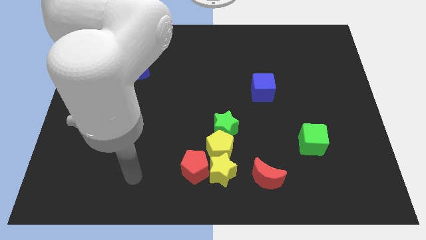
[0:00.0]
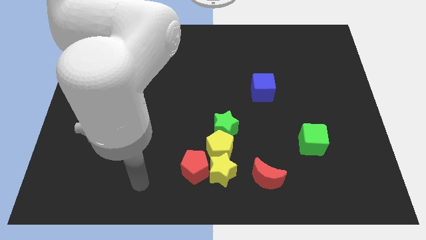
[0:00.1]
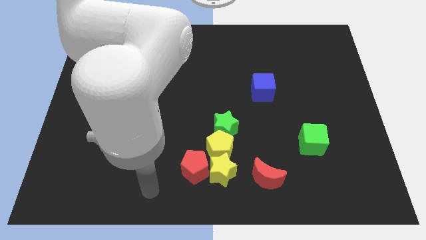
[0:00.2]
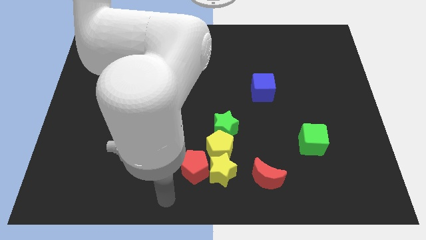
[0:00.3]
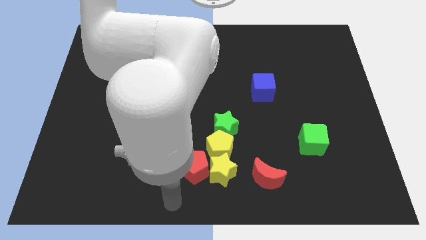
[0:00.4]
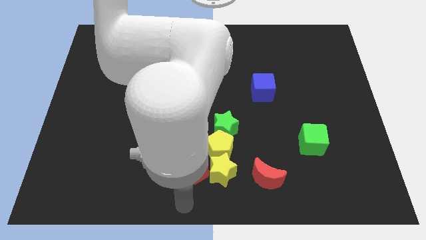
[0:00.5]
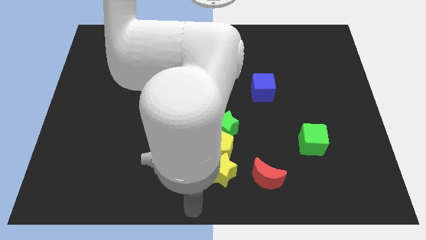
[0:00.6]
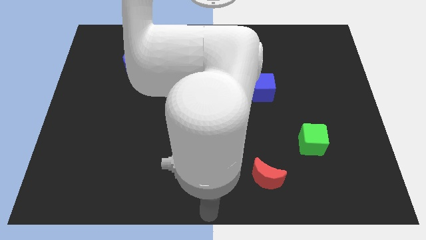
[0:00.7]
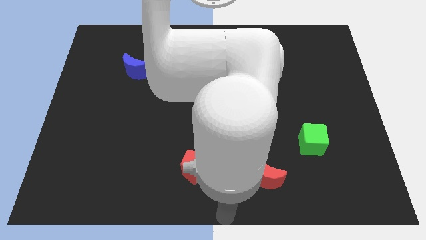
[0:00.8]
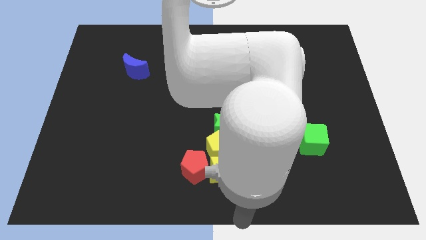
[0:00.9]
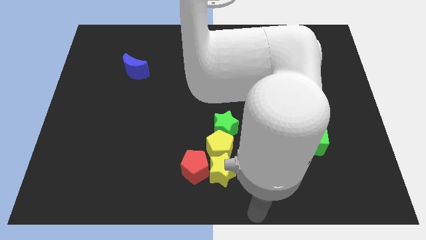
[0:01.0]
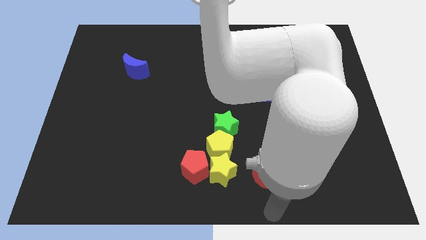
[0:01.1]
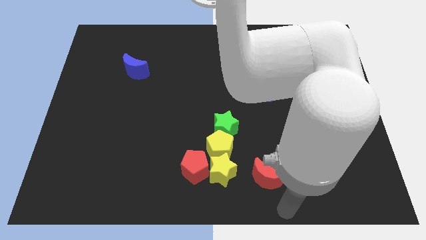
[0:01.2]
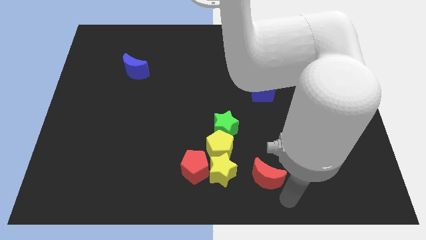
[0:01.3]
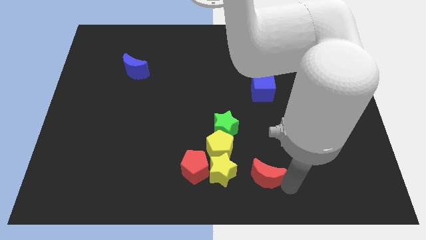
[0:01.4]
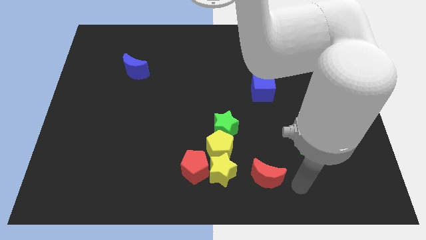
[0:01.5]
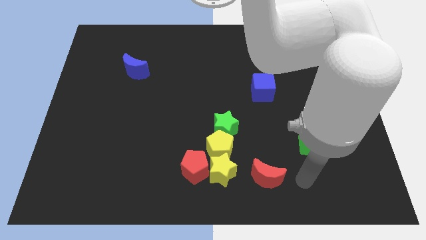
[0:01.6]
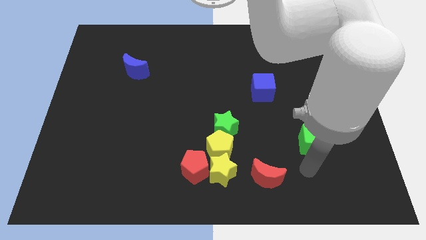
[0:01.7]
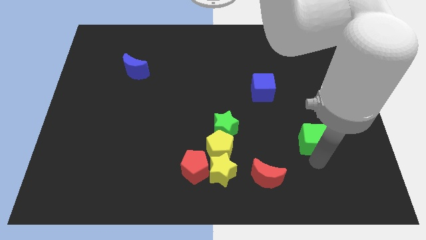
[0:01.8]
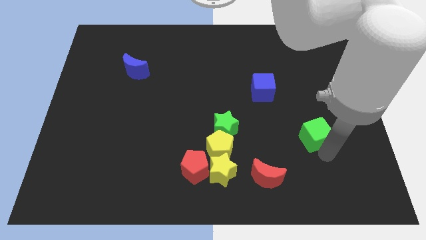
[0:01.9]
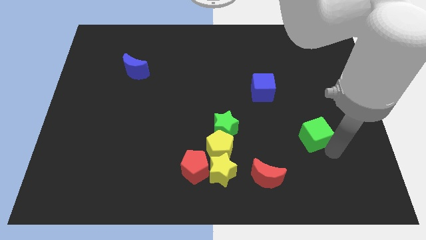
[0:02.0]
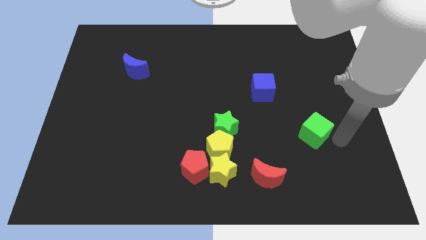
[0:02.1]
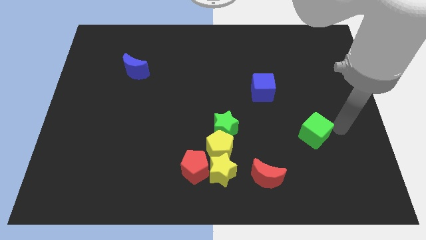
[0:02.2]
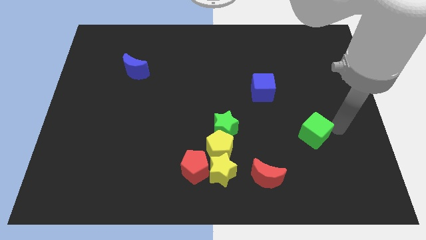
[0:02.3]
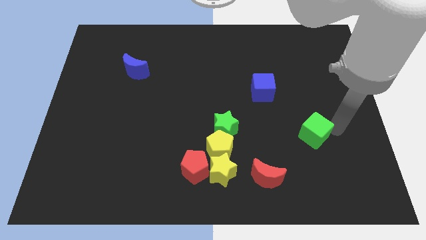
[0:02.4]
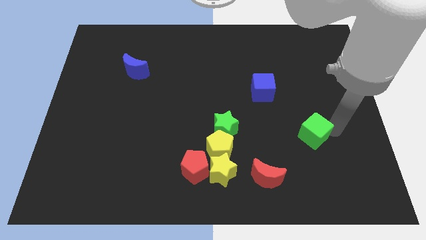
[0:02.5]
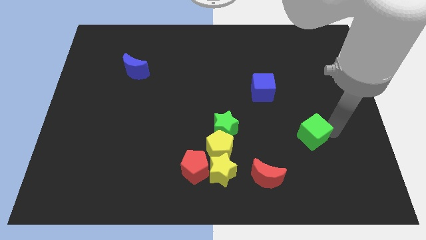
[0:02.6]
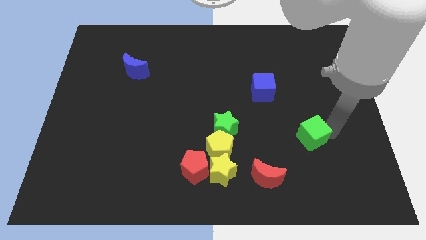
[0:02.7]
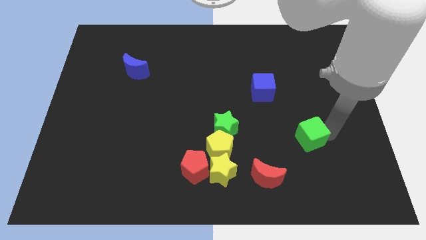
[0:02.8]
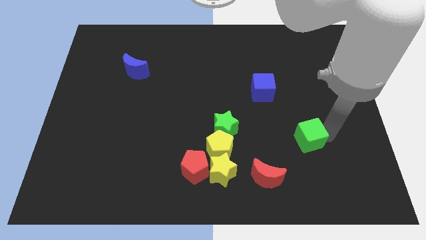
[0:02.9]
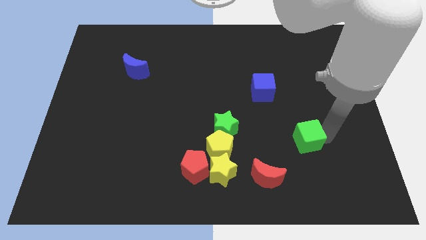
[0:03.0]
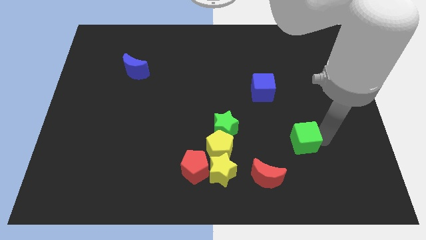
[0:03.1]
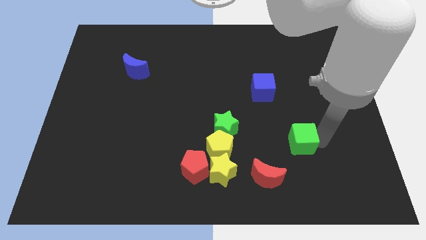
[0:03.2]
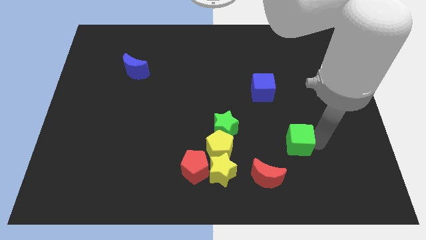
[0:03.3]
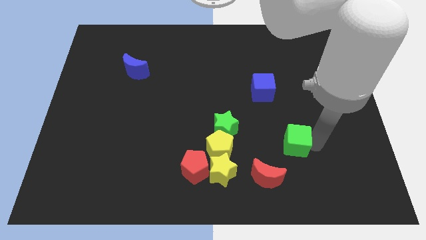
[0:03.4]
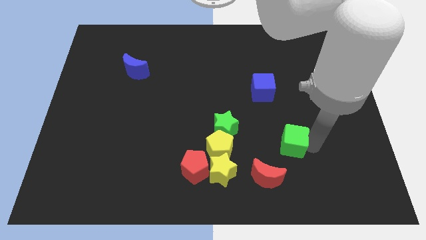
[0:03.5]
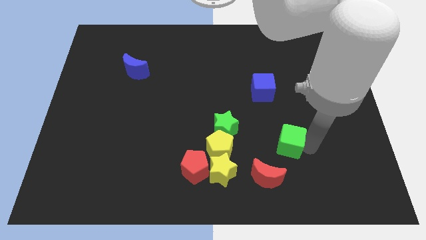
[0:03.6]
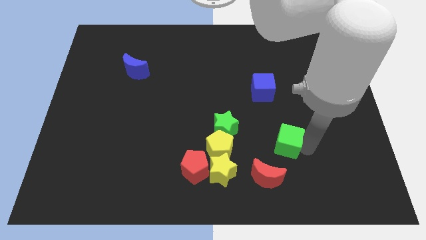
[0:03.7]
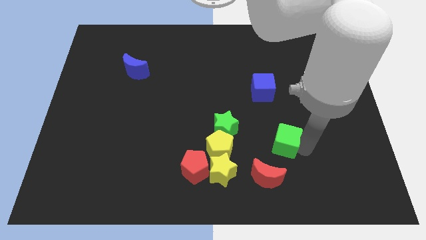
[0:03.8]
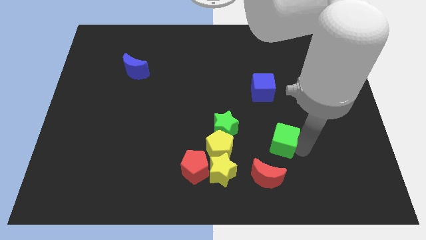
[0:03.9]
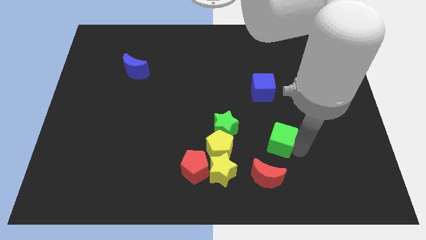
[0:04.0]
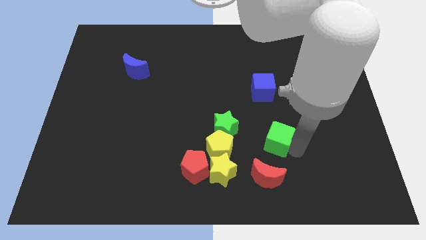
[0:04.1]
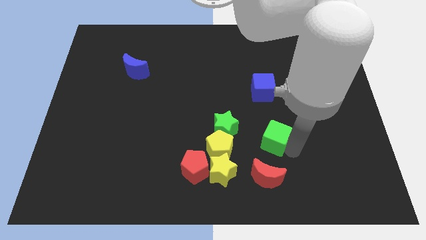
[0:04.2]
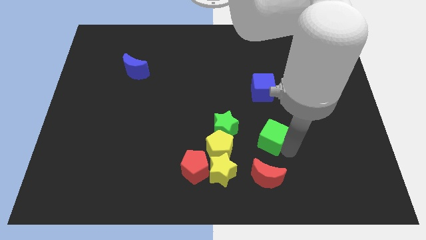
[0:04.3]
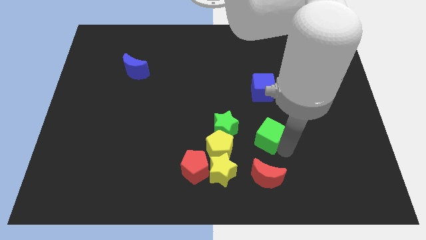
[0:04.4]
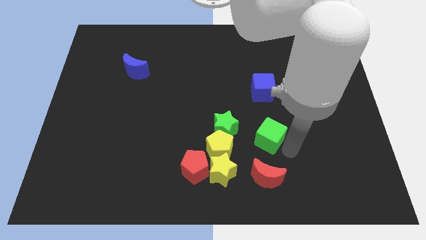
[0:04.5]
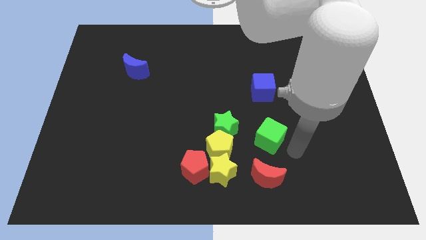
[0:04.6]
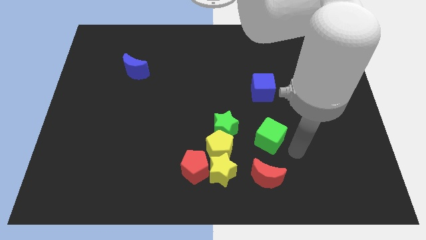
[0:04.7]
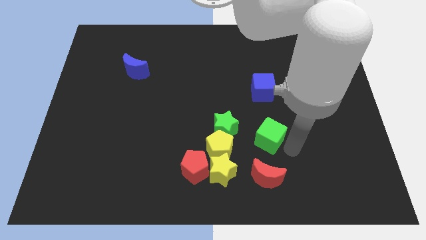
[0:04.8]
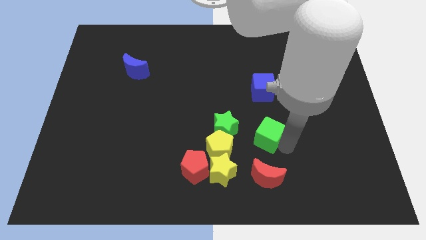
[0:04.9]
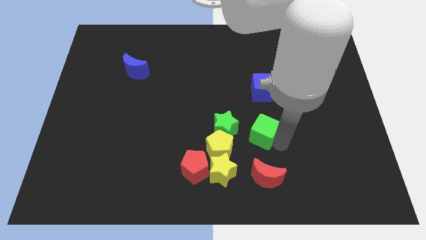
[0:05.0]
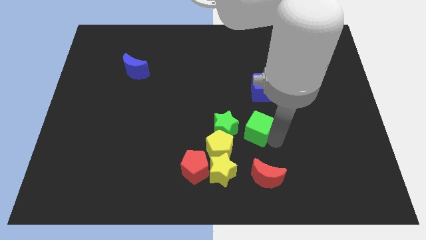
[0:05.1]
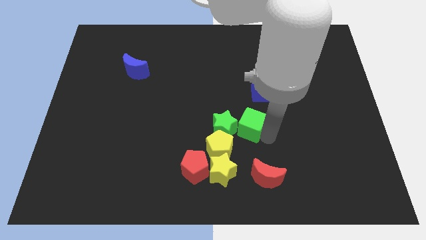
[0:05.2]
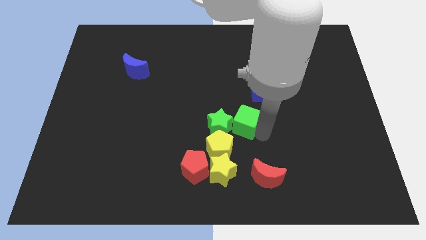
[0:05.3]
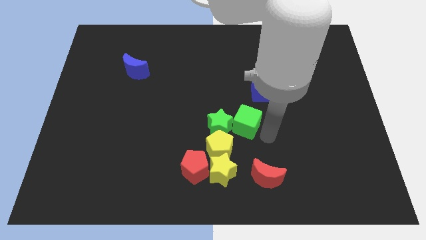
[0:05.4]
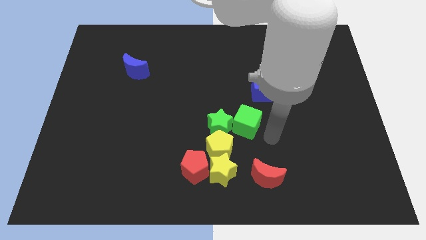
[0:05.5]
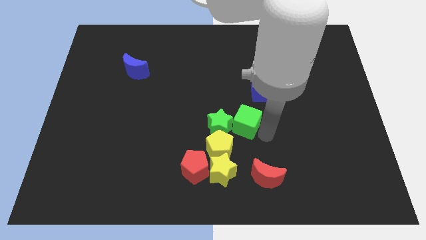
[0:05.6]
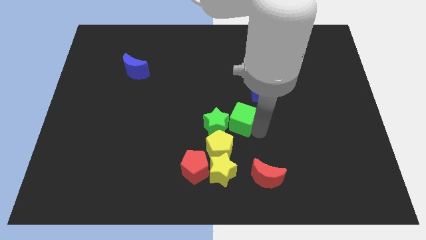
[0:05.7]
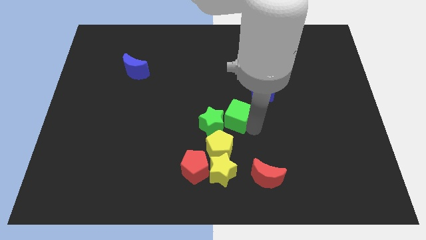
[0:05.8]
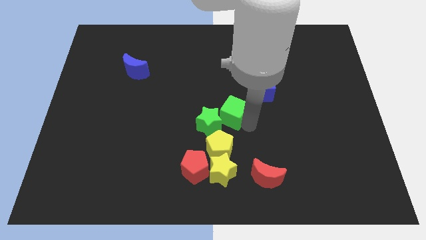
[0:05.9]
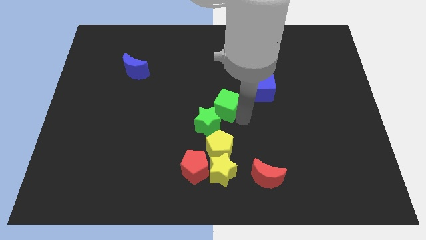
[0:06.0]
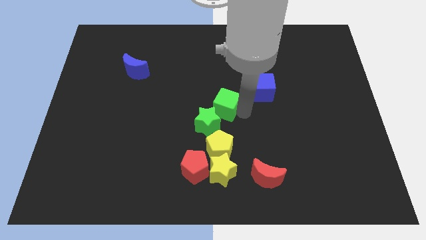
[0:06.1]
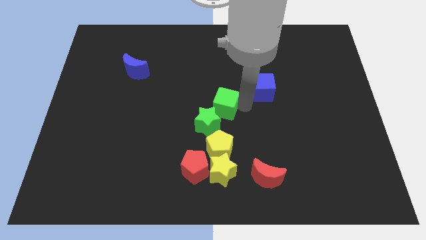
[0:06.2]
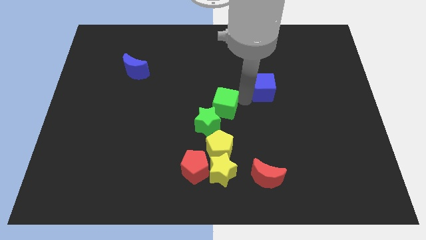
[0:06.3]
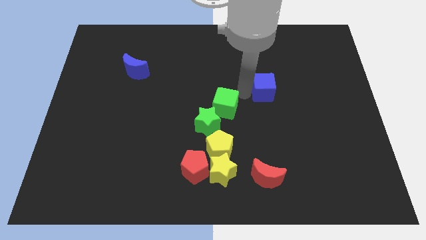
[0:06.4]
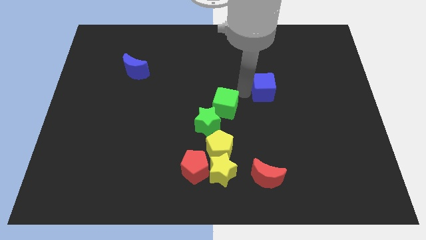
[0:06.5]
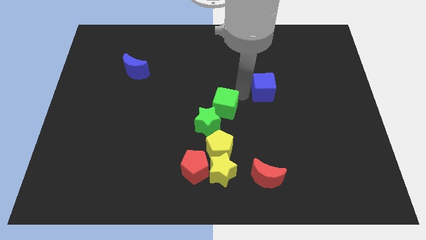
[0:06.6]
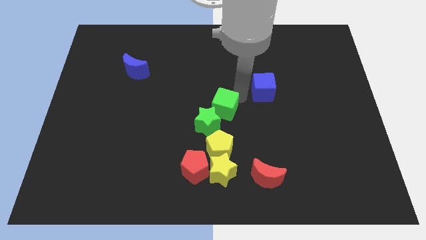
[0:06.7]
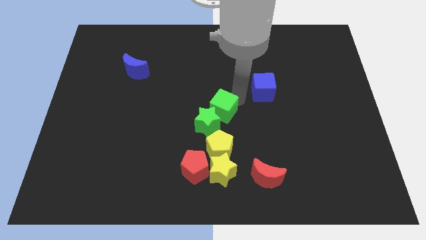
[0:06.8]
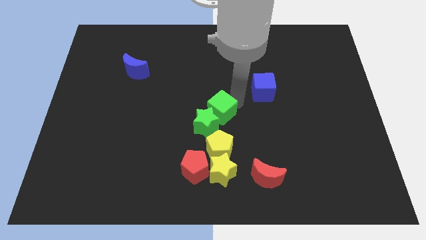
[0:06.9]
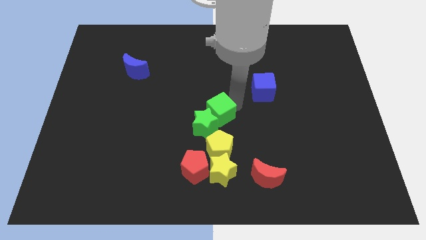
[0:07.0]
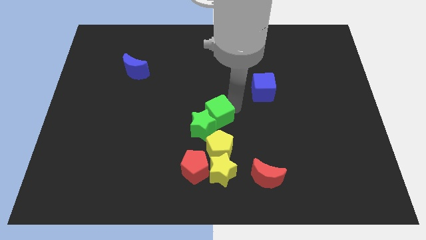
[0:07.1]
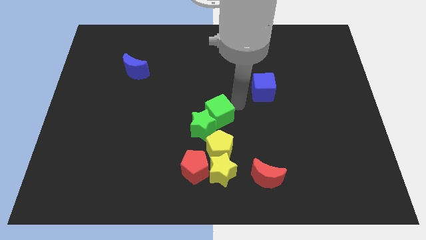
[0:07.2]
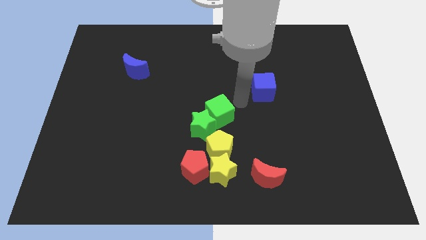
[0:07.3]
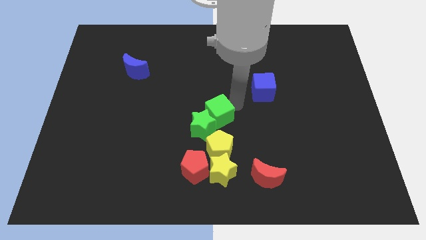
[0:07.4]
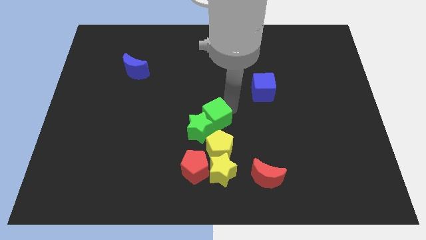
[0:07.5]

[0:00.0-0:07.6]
push the green cube to the top side of the red pentagon
